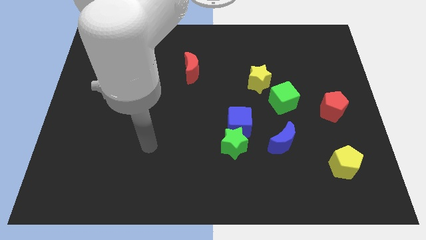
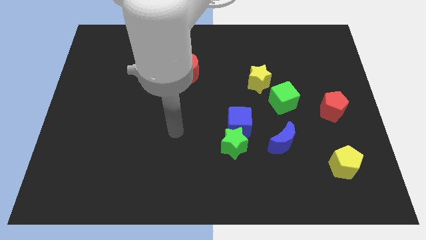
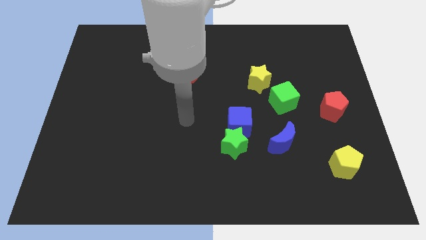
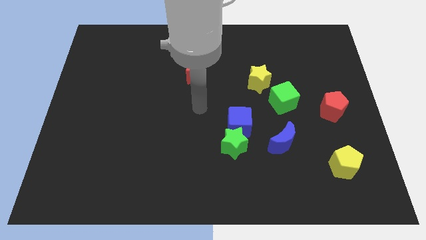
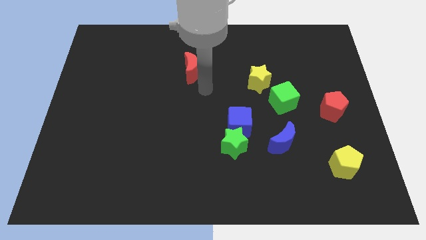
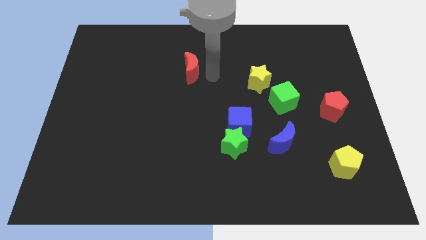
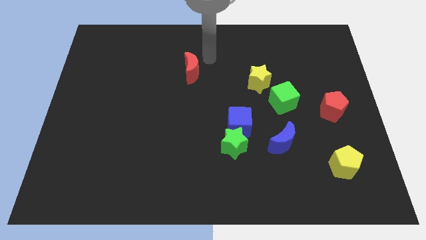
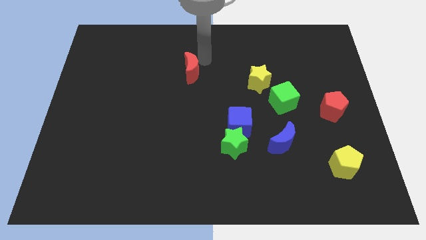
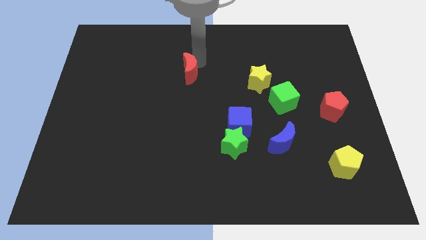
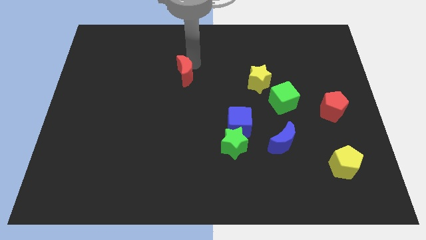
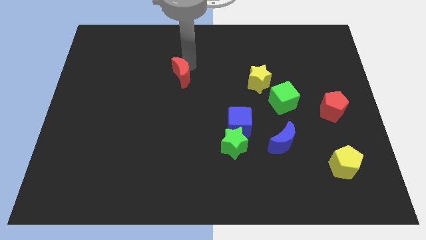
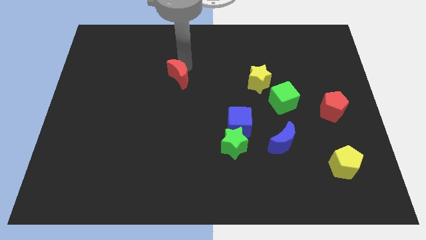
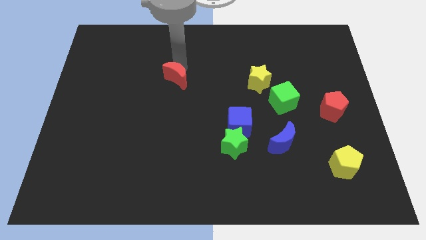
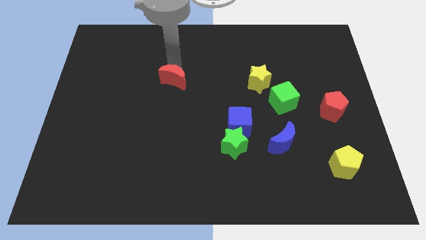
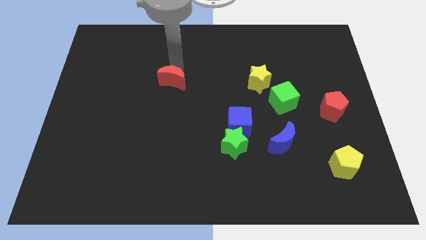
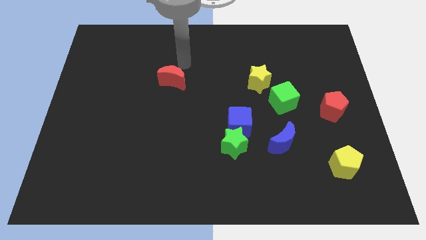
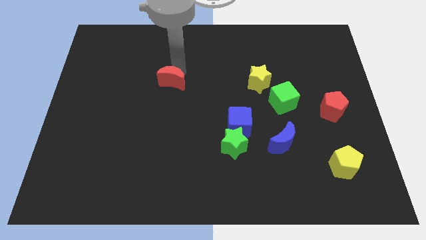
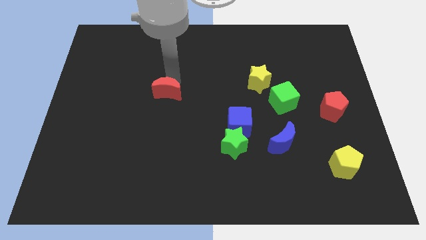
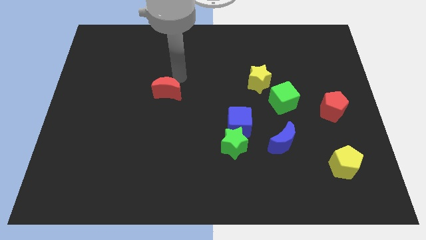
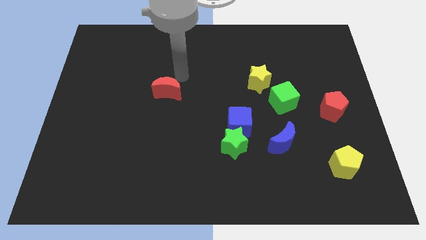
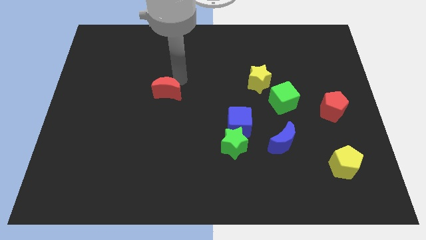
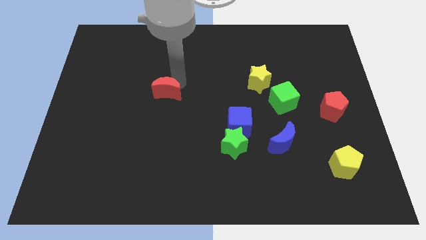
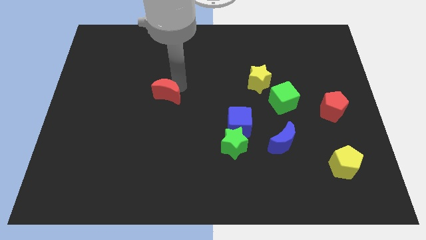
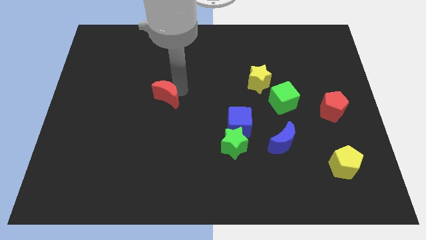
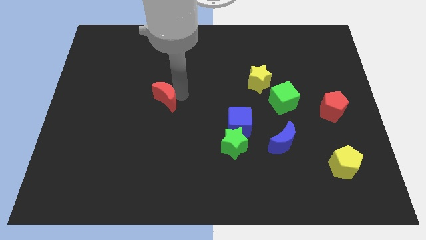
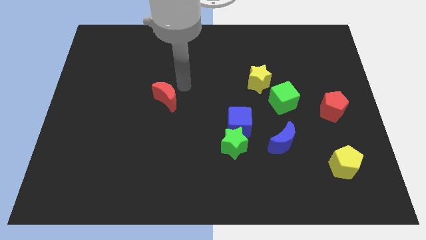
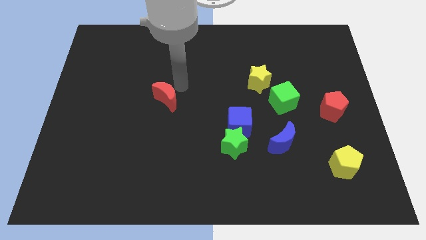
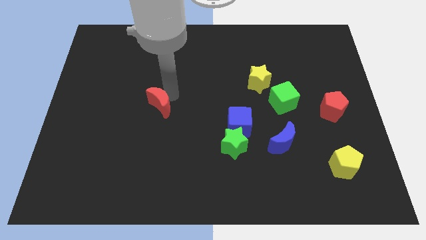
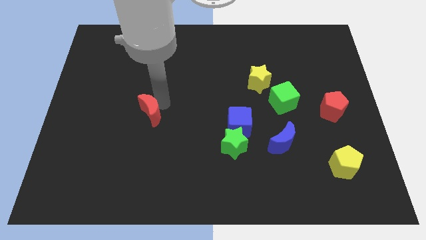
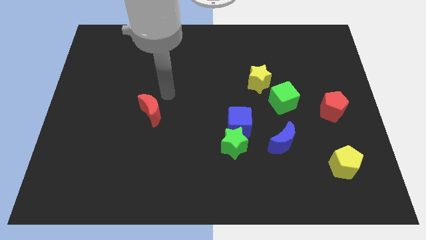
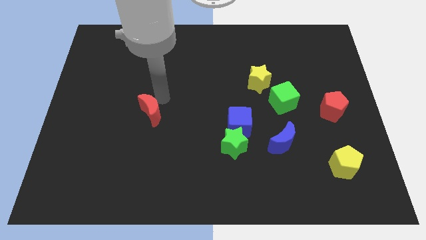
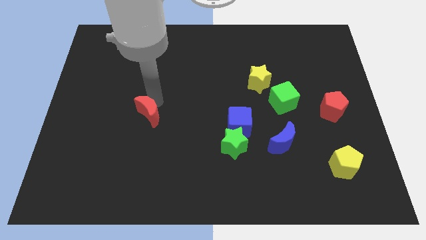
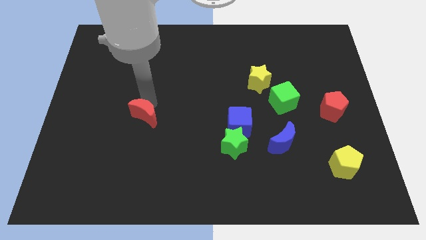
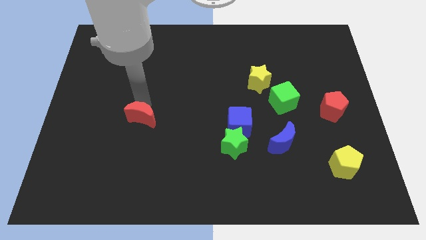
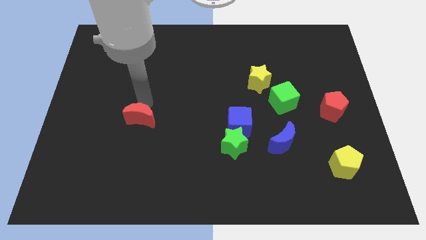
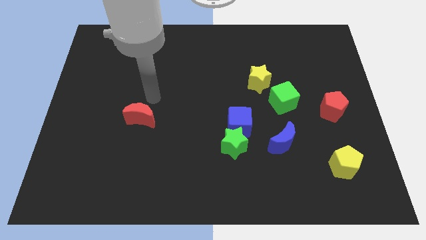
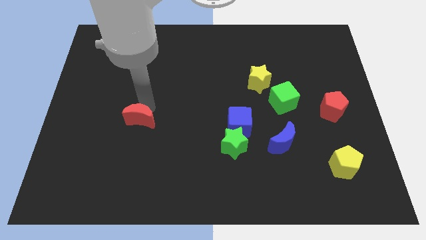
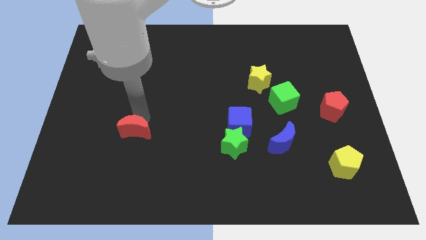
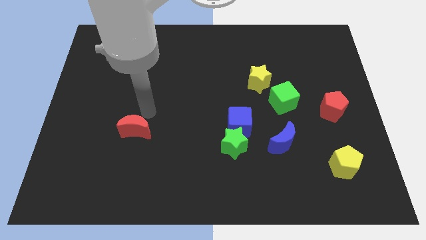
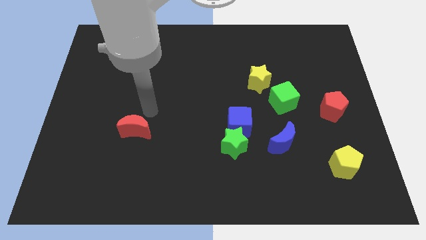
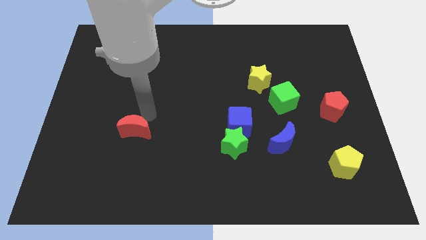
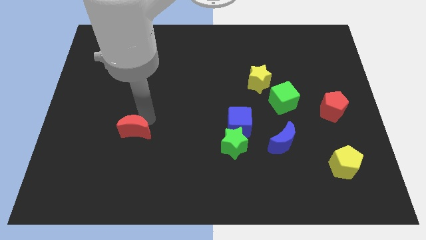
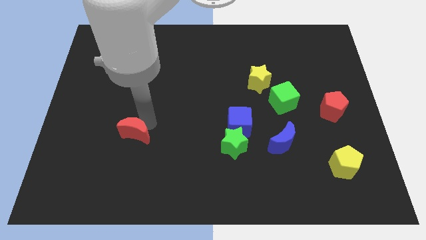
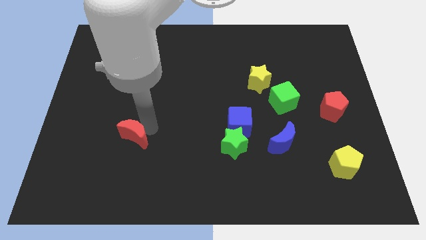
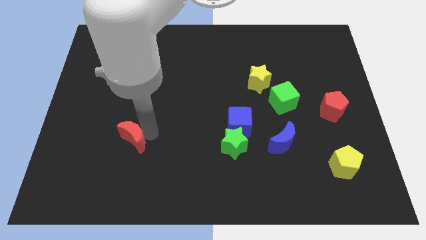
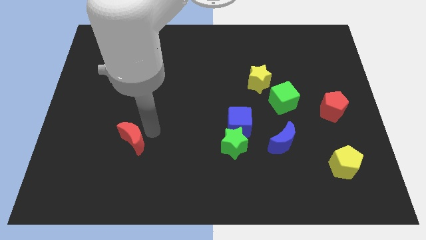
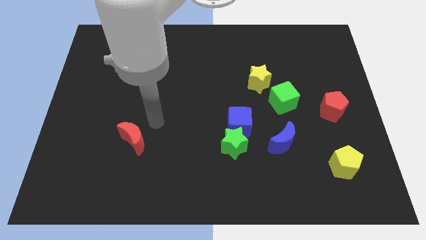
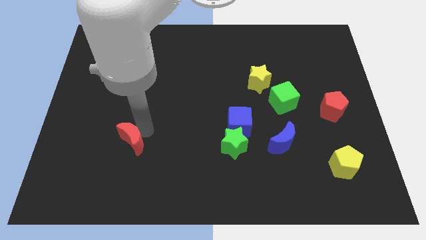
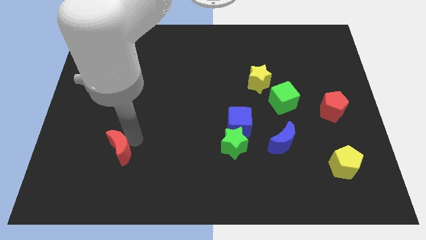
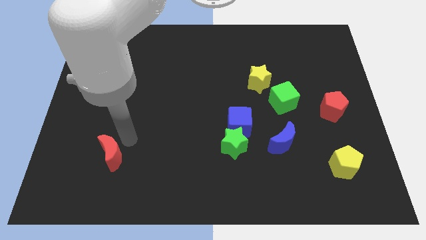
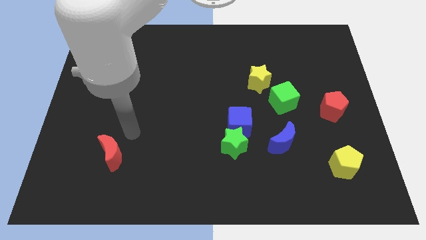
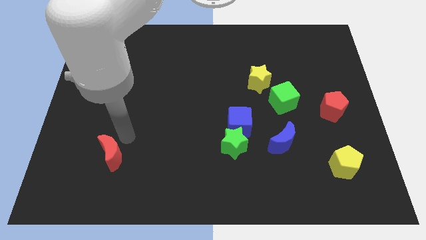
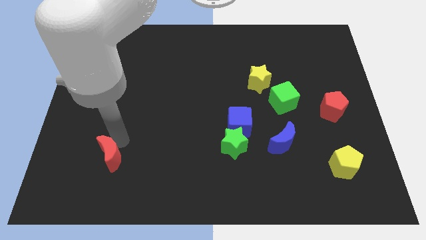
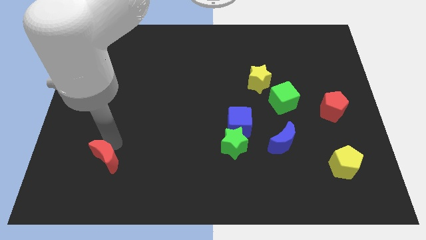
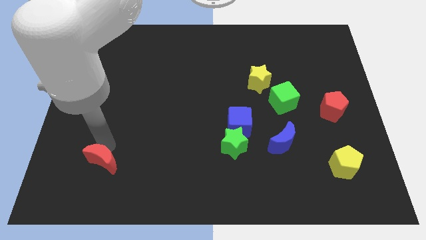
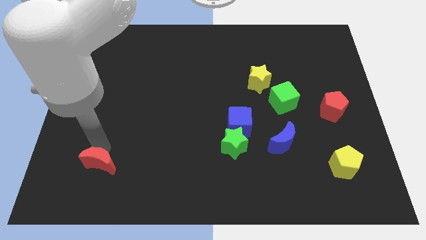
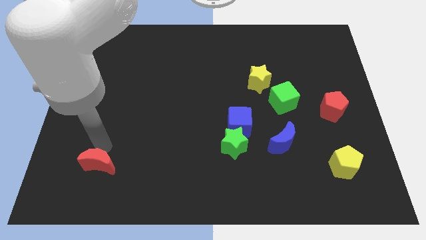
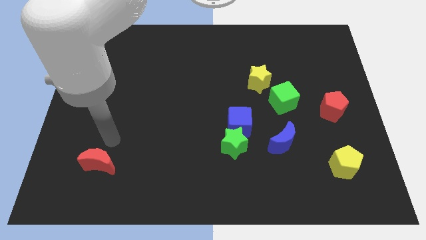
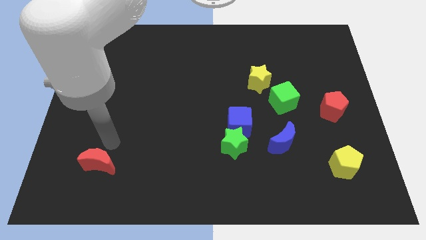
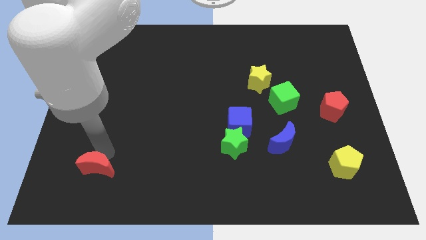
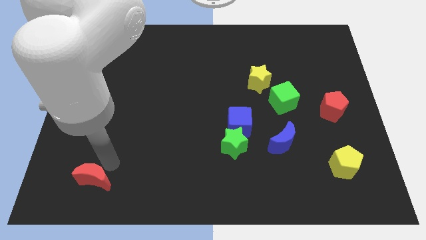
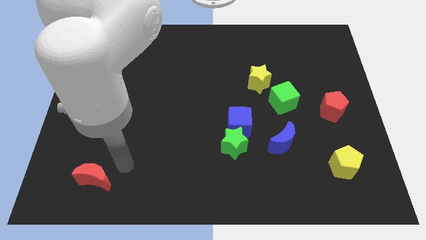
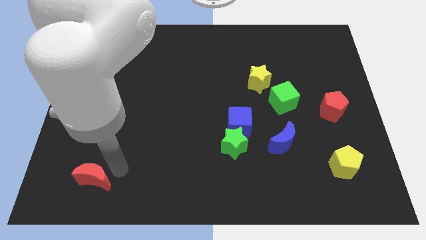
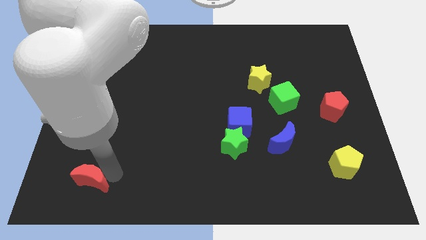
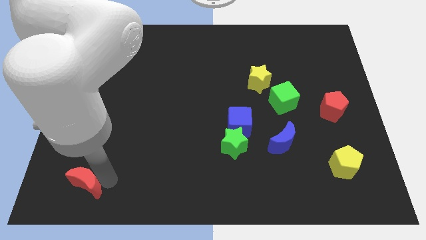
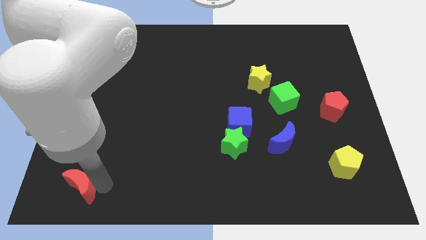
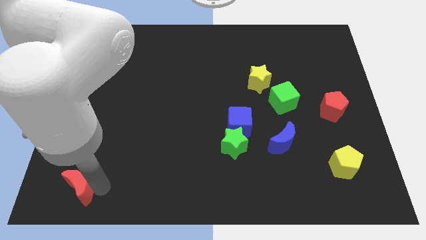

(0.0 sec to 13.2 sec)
move the red moon to the lower left corner

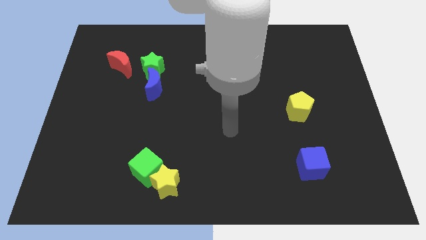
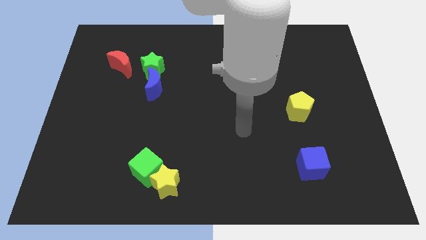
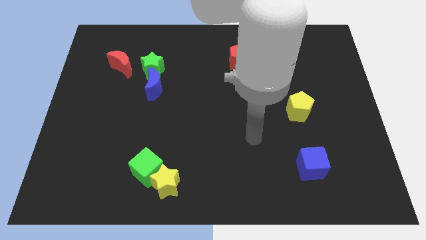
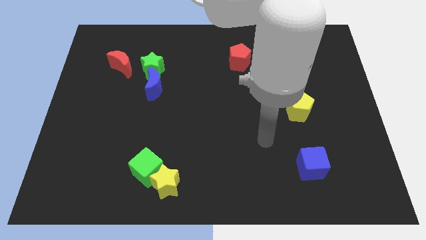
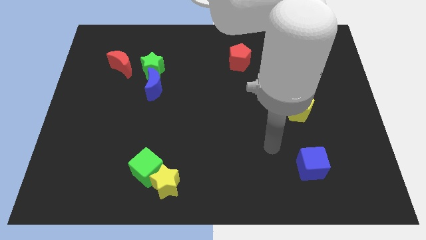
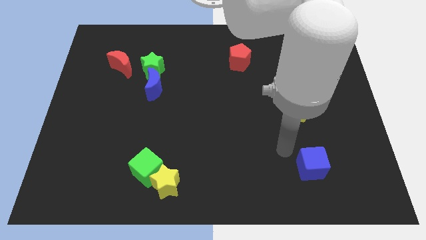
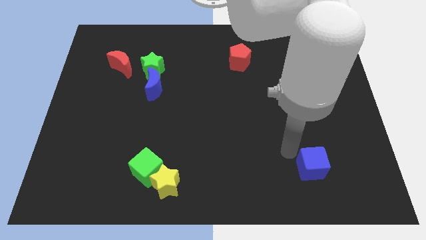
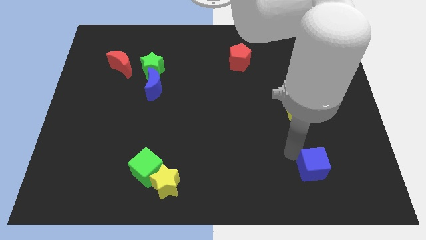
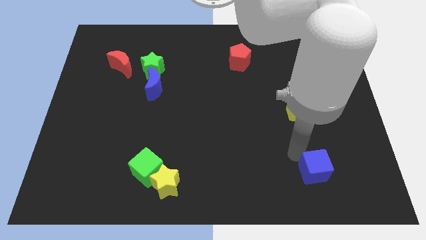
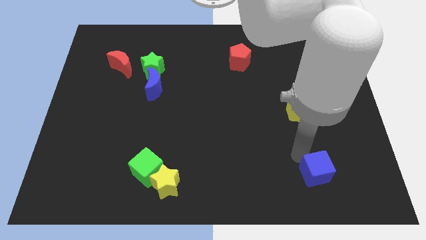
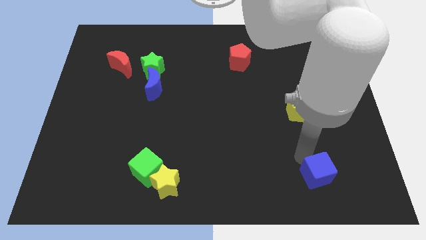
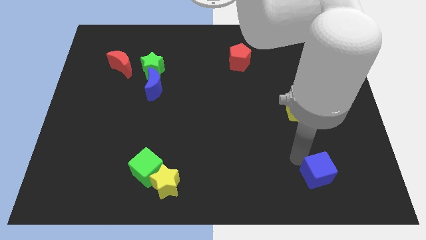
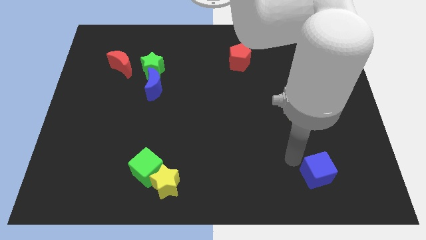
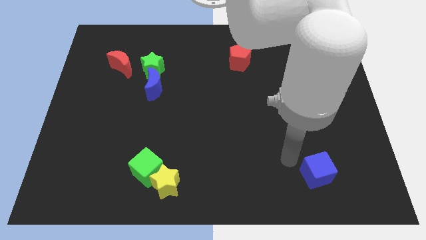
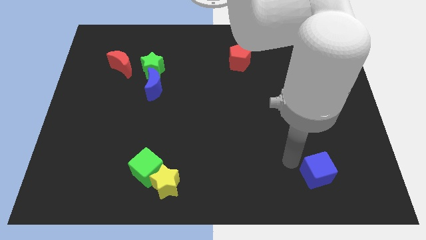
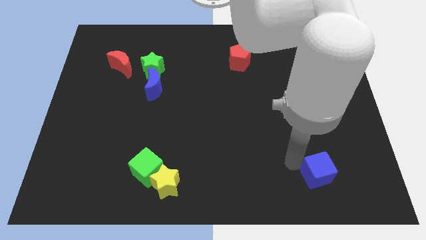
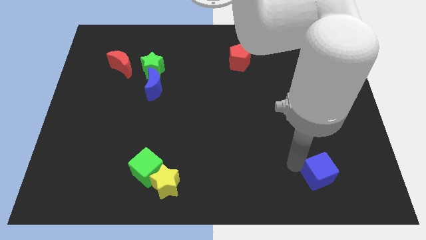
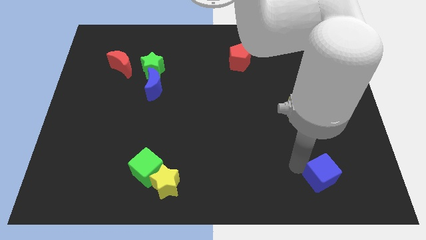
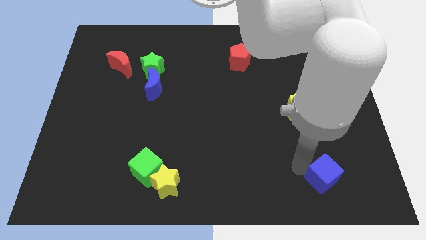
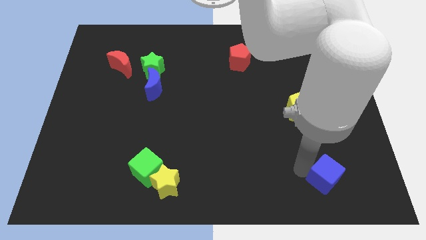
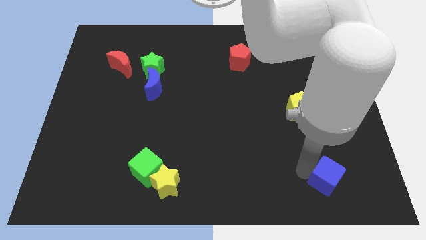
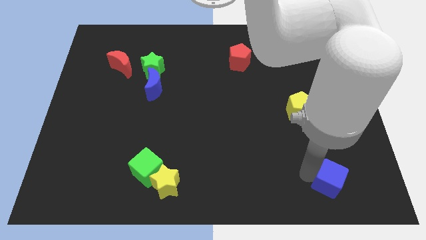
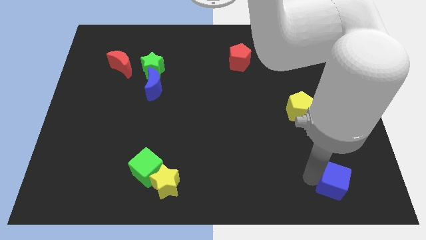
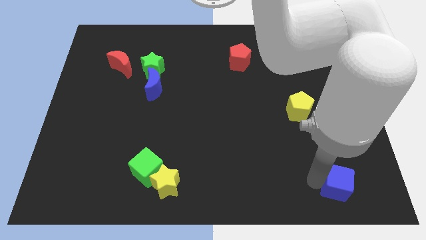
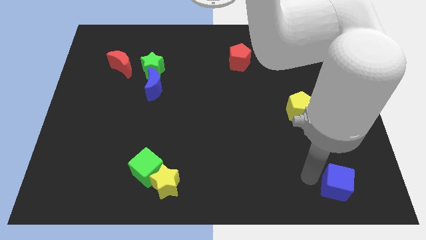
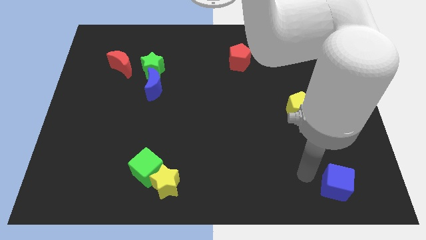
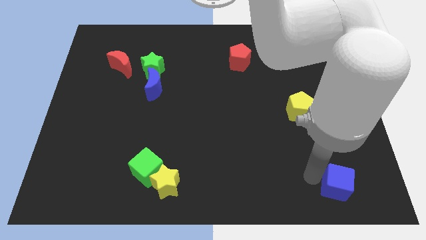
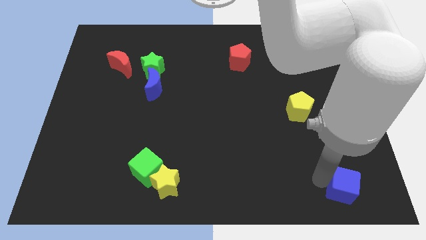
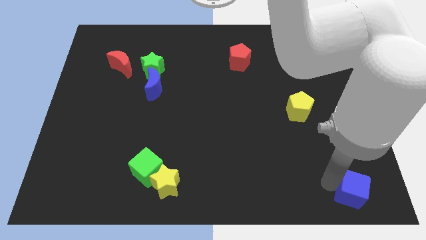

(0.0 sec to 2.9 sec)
push the blue cube to the lower right corner
